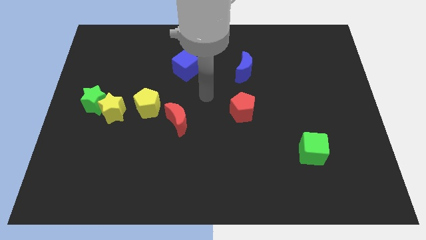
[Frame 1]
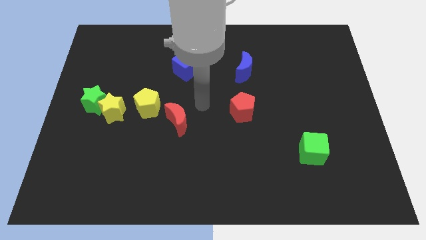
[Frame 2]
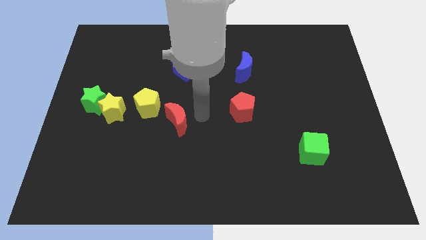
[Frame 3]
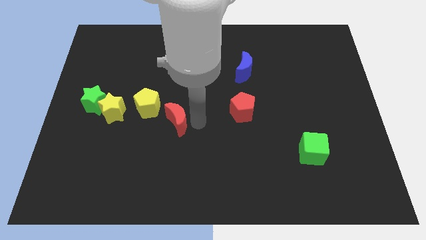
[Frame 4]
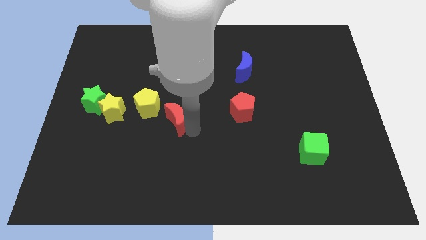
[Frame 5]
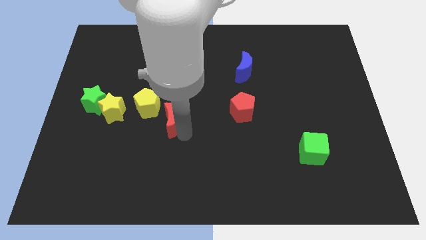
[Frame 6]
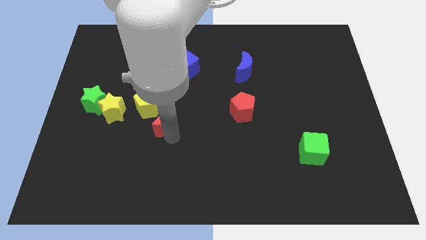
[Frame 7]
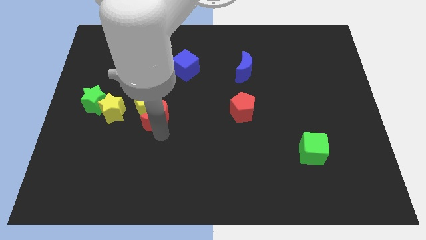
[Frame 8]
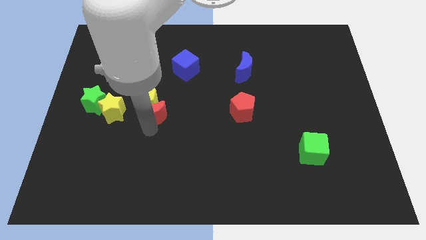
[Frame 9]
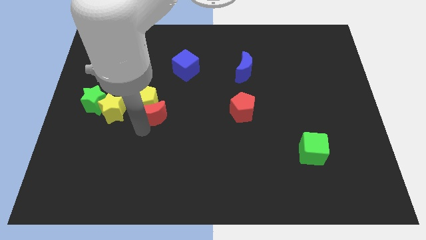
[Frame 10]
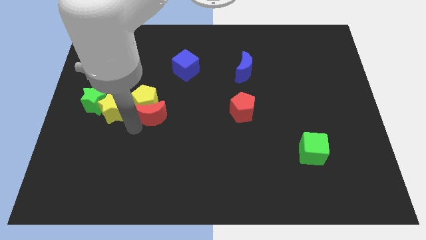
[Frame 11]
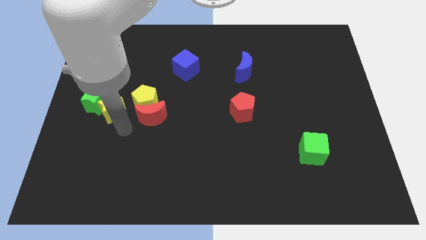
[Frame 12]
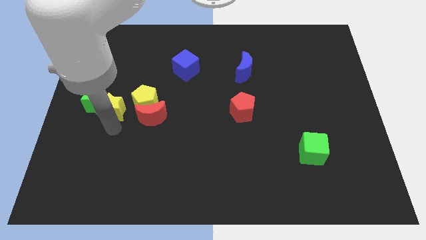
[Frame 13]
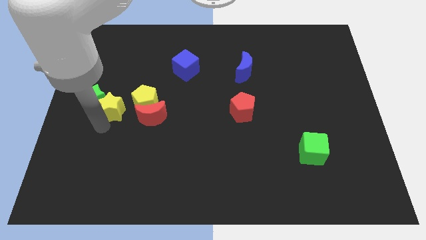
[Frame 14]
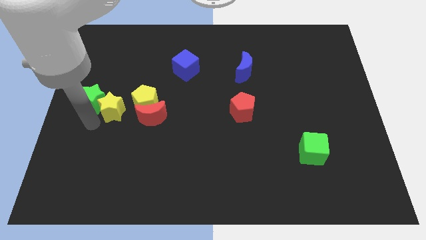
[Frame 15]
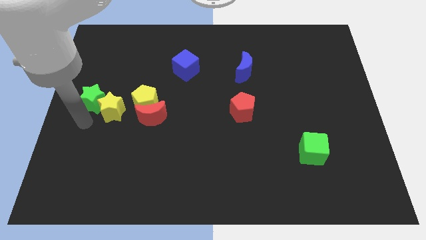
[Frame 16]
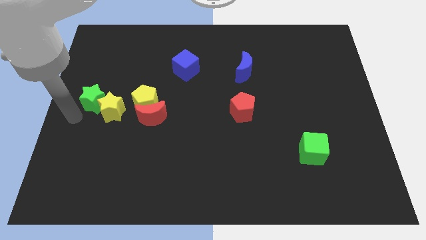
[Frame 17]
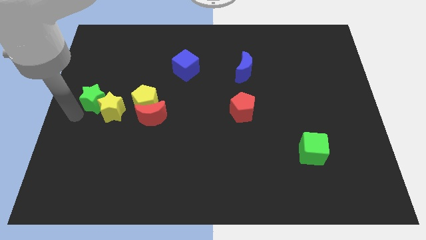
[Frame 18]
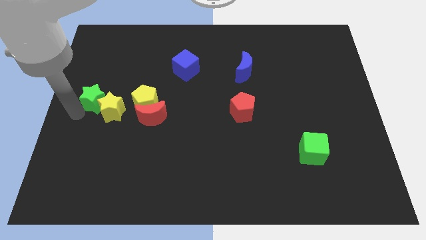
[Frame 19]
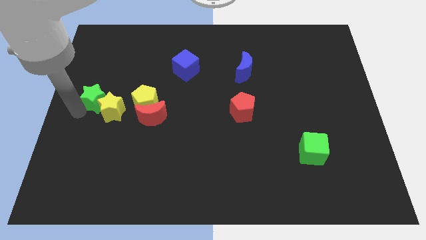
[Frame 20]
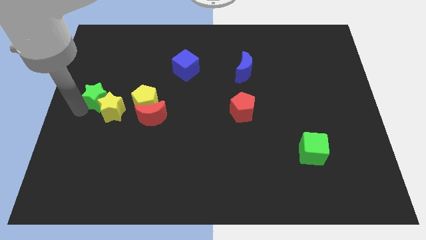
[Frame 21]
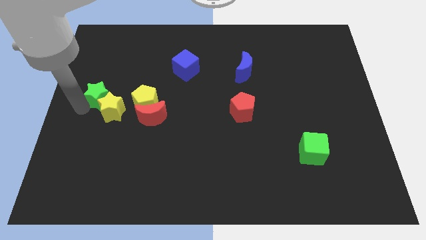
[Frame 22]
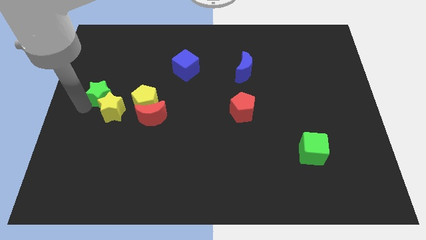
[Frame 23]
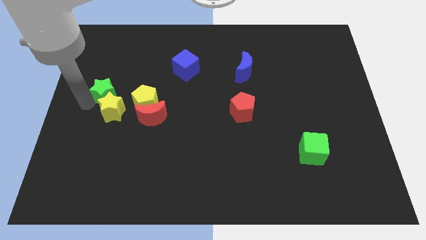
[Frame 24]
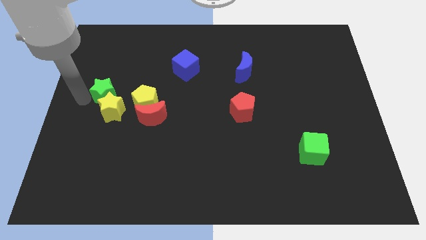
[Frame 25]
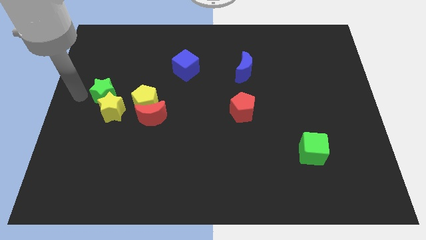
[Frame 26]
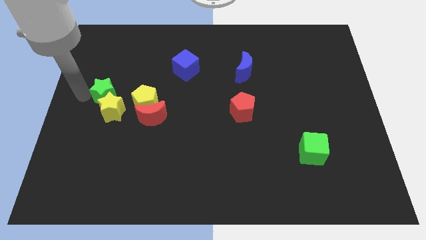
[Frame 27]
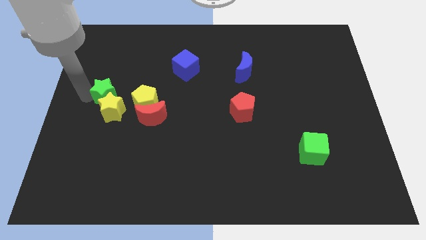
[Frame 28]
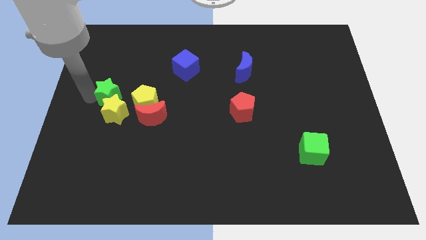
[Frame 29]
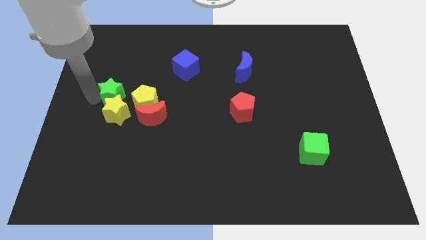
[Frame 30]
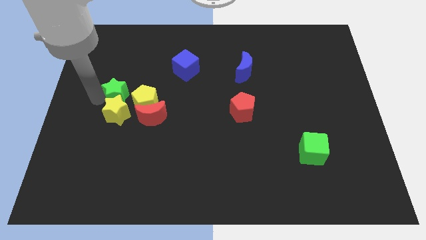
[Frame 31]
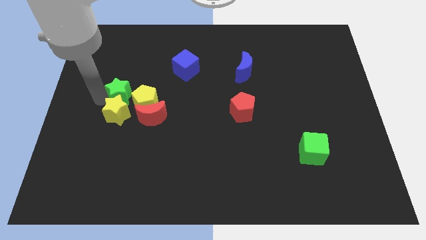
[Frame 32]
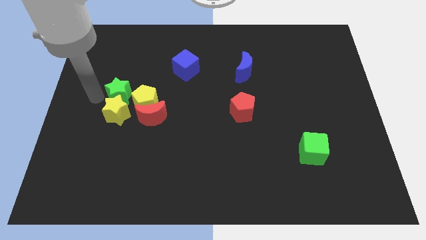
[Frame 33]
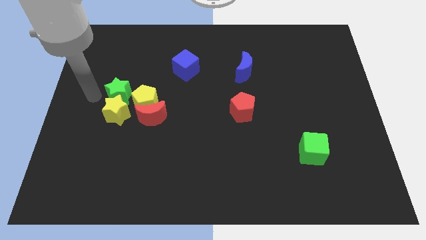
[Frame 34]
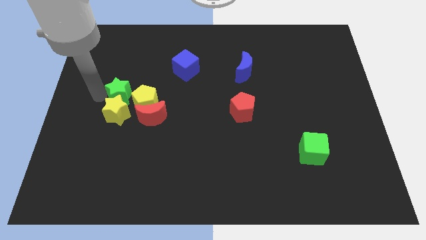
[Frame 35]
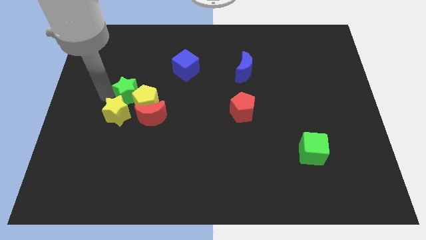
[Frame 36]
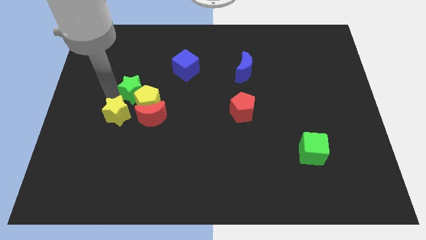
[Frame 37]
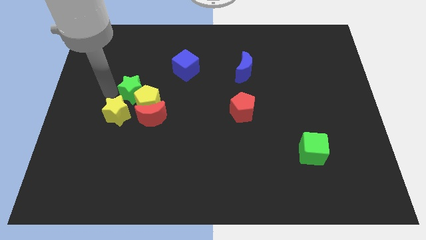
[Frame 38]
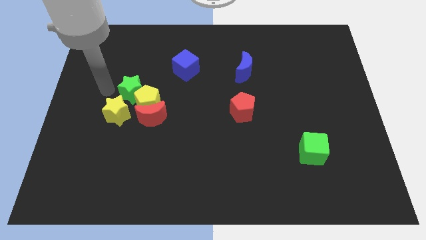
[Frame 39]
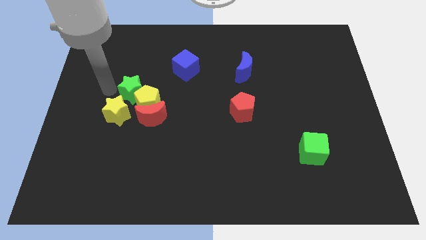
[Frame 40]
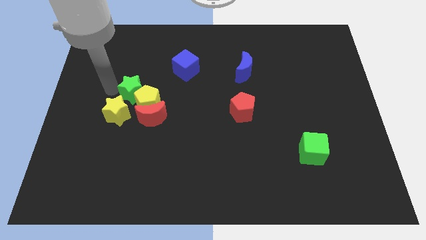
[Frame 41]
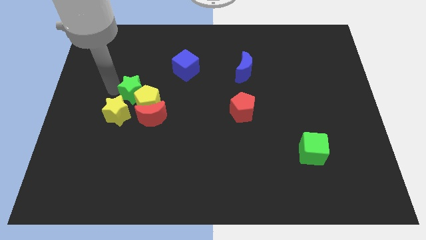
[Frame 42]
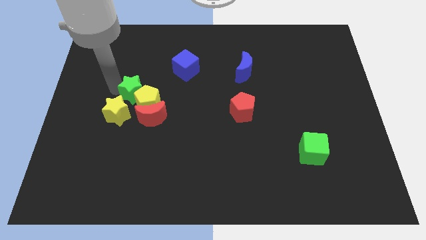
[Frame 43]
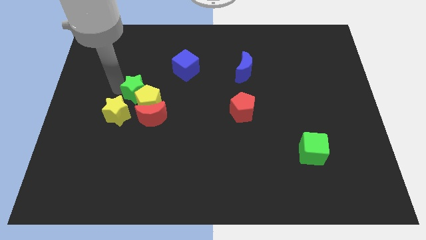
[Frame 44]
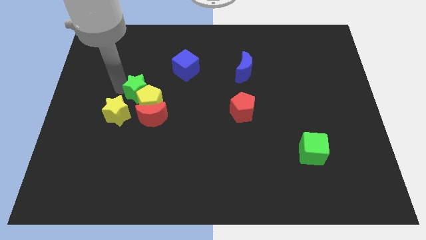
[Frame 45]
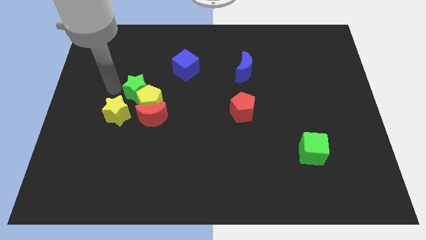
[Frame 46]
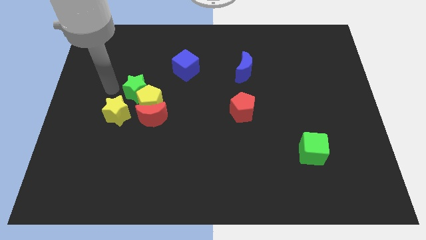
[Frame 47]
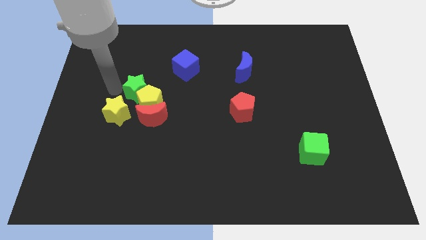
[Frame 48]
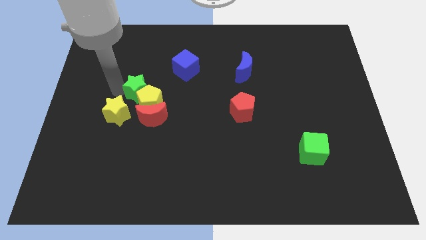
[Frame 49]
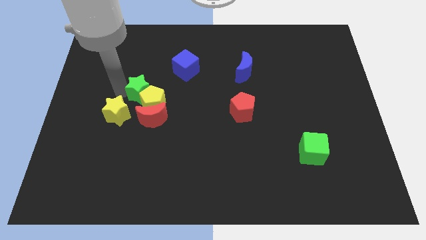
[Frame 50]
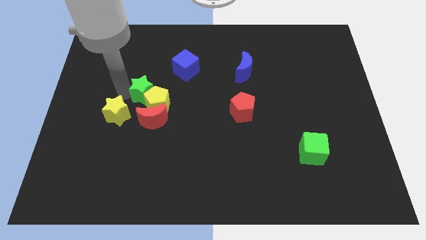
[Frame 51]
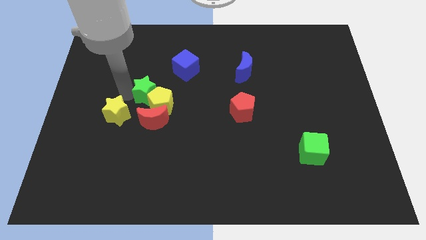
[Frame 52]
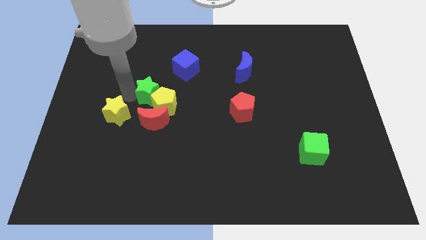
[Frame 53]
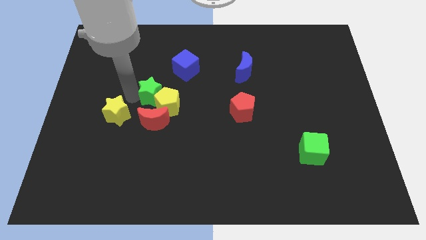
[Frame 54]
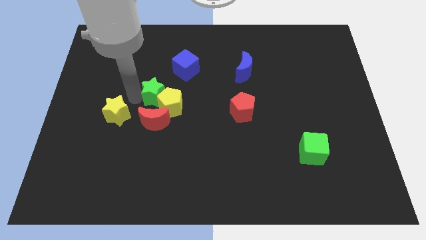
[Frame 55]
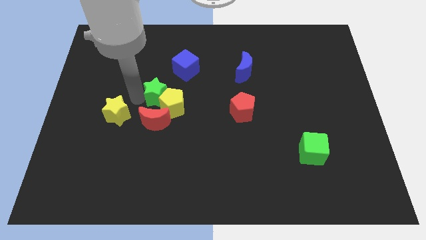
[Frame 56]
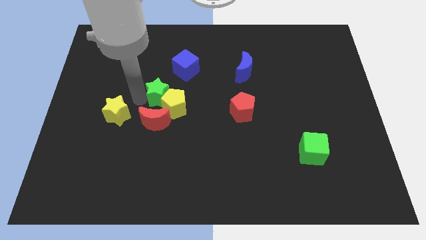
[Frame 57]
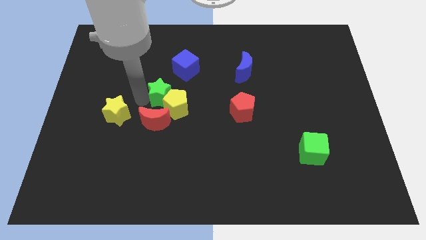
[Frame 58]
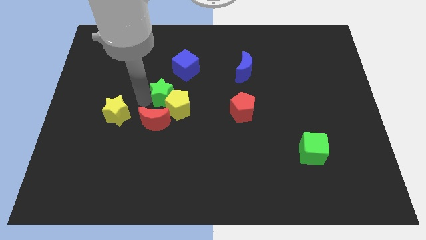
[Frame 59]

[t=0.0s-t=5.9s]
move the green star to the center

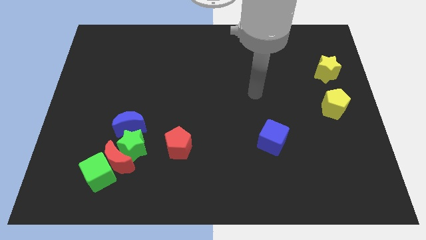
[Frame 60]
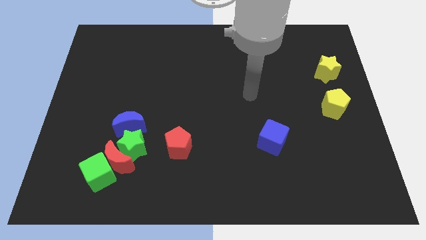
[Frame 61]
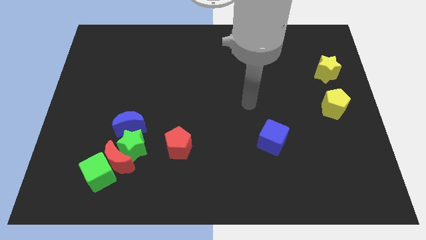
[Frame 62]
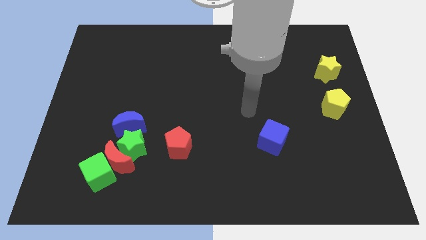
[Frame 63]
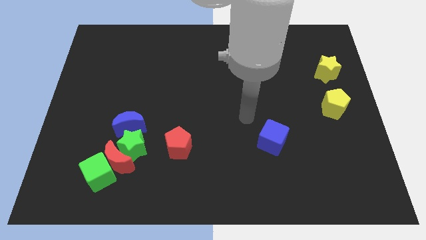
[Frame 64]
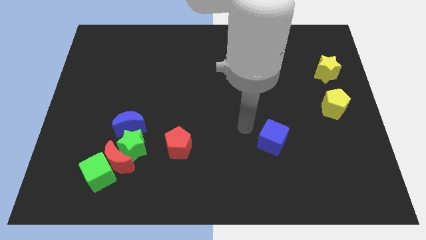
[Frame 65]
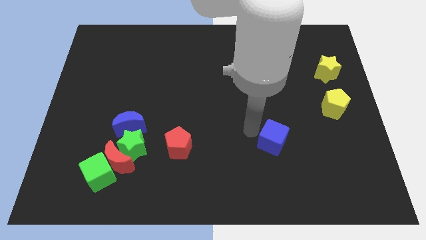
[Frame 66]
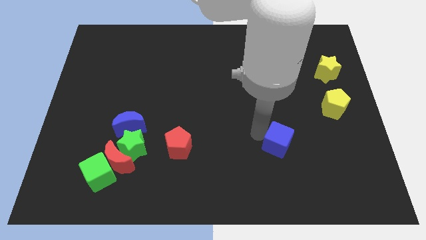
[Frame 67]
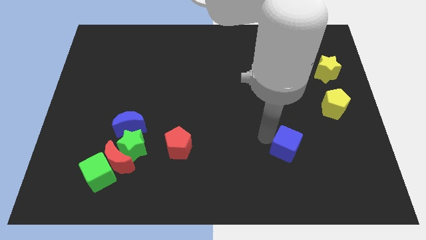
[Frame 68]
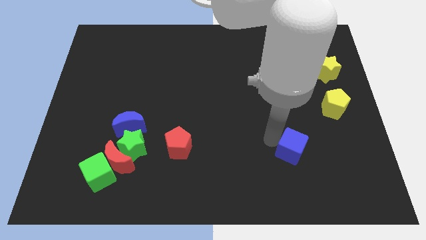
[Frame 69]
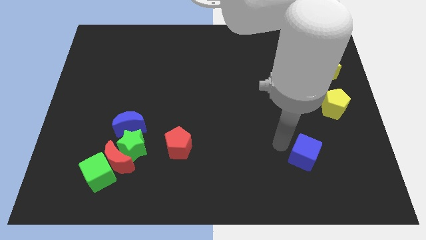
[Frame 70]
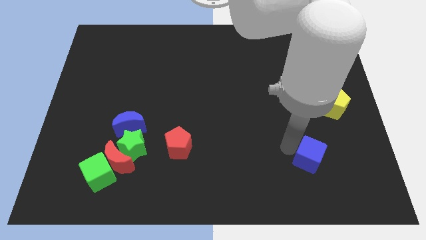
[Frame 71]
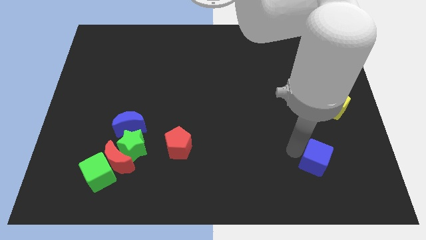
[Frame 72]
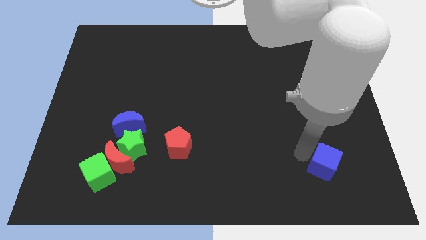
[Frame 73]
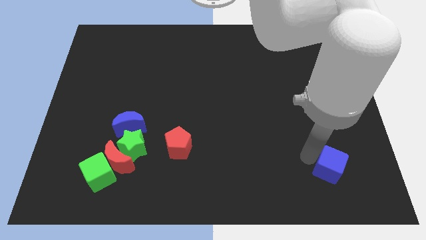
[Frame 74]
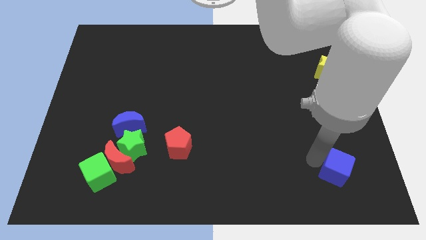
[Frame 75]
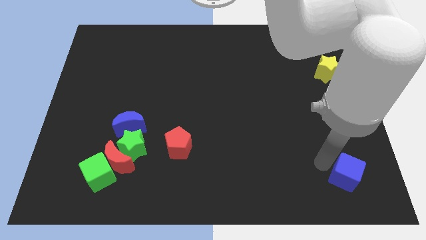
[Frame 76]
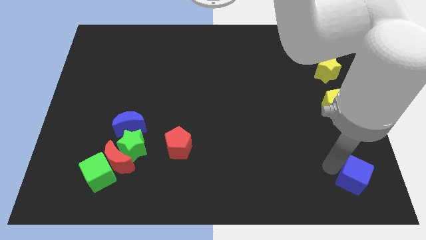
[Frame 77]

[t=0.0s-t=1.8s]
put the blue cube to the bottom right corner
